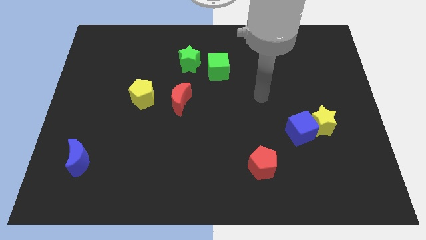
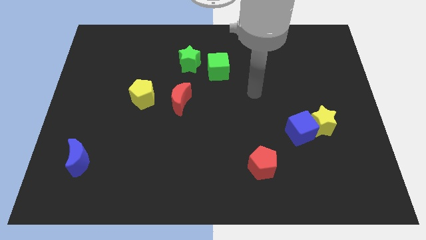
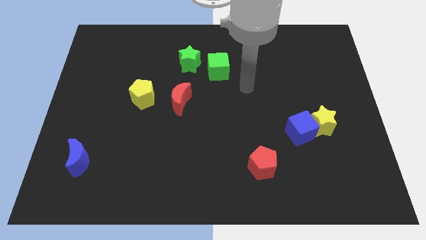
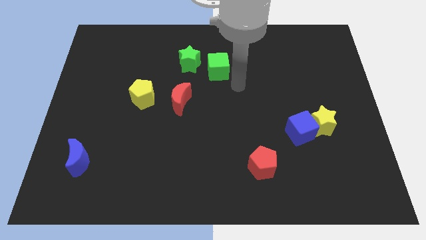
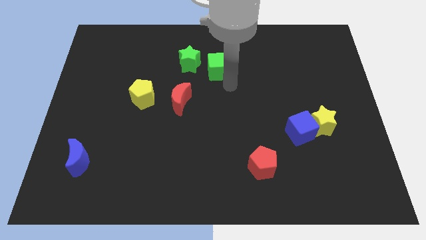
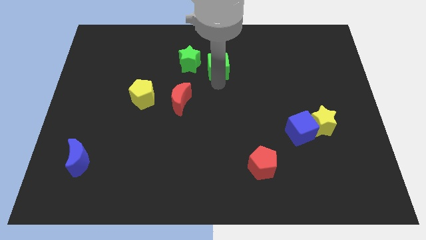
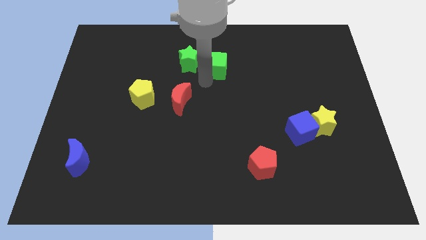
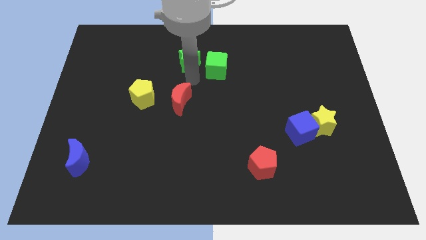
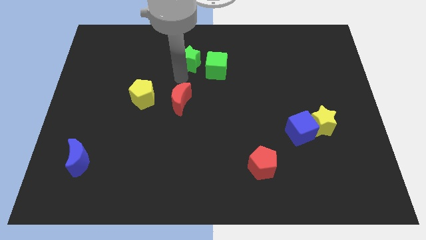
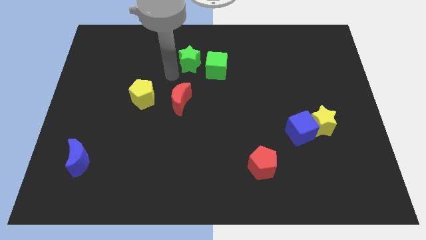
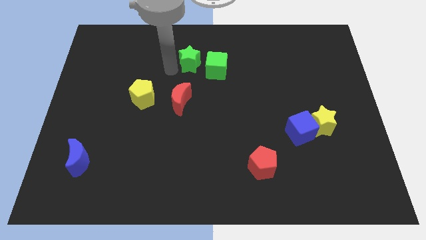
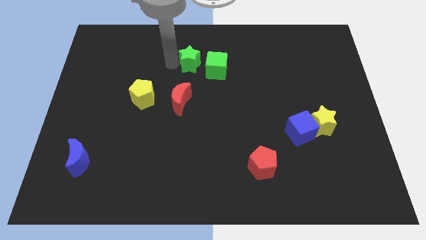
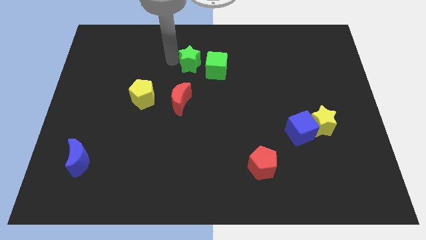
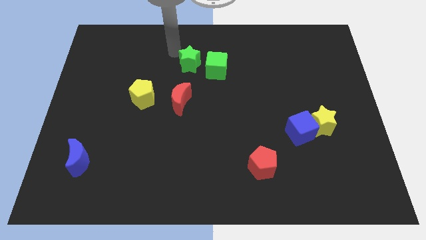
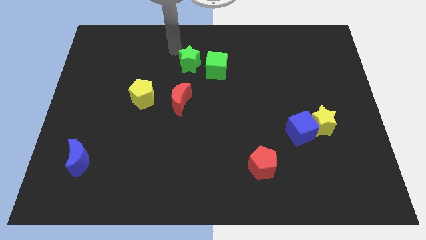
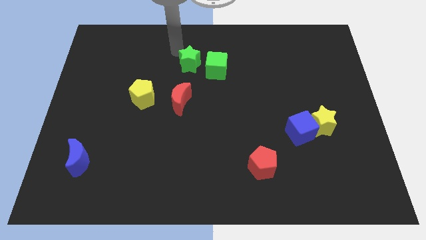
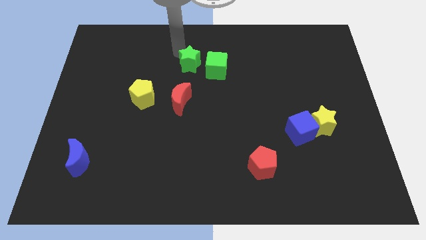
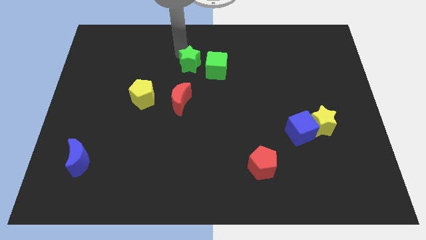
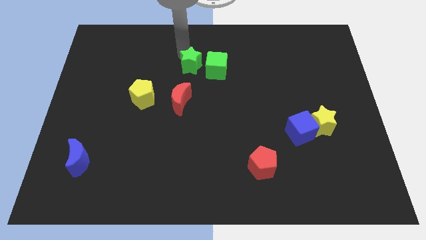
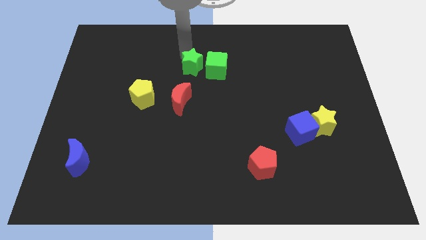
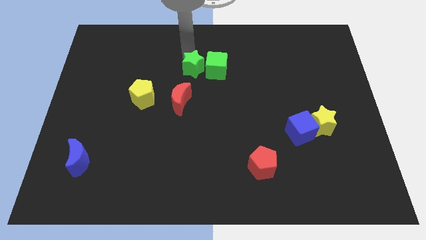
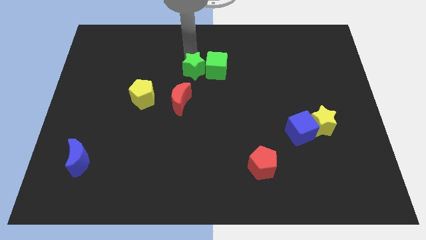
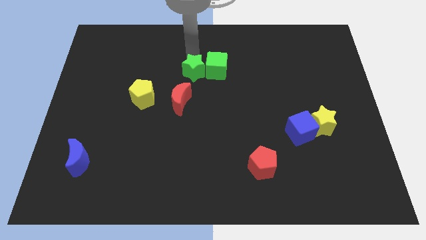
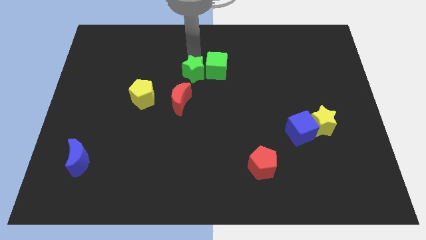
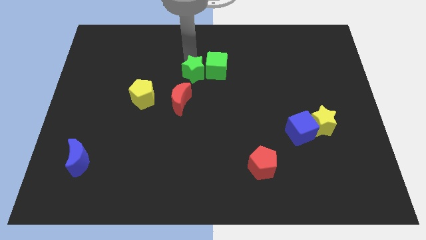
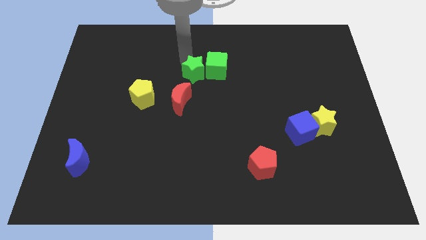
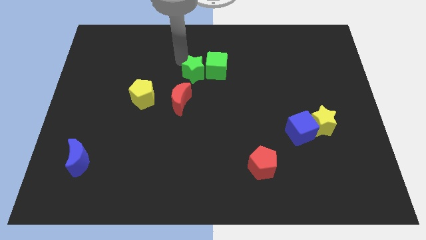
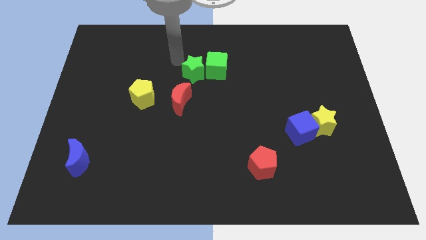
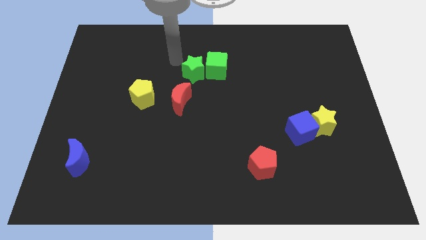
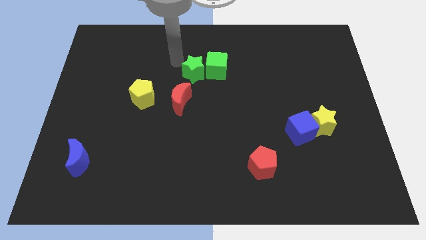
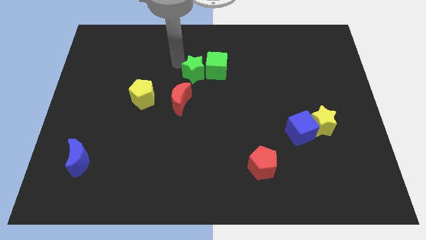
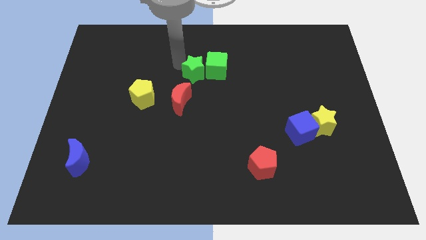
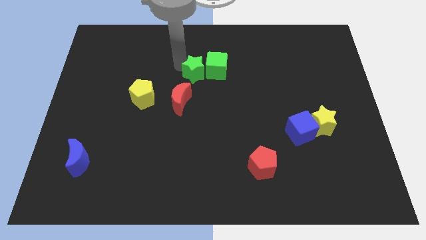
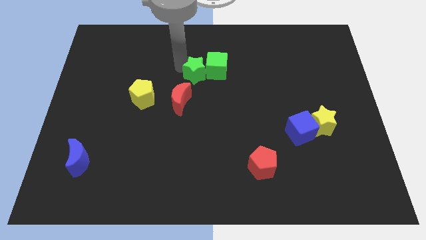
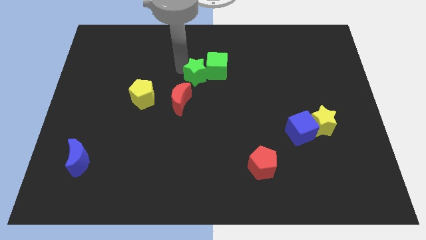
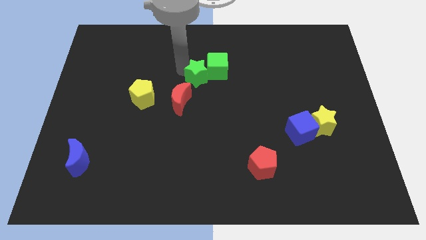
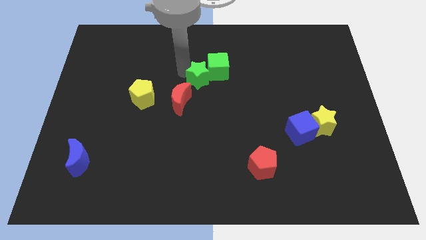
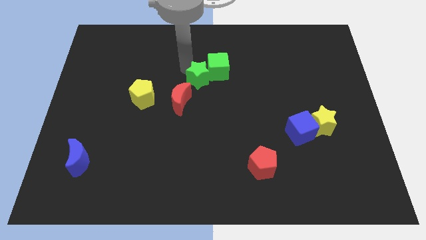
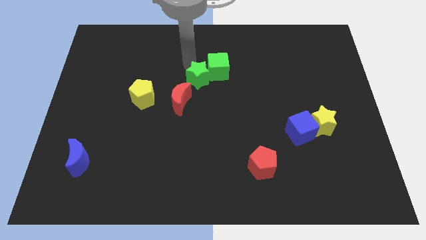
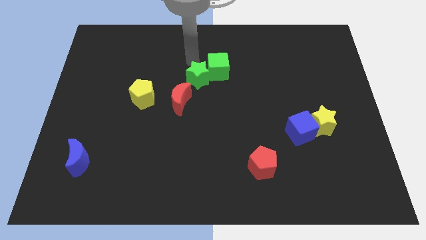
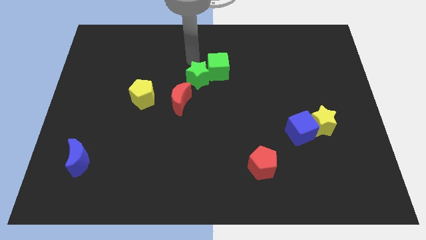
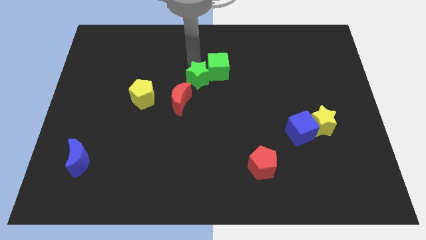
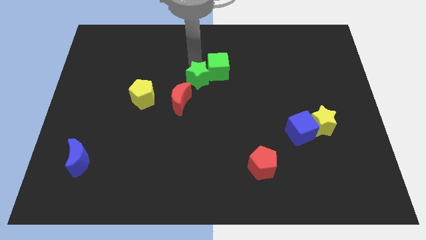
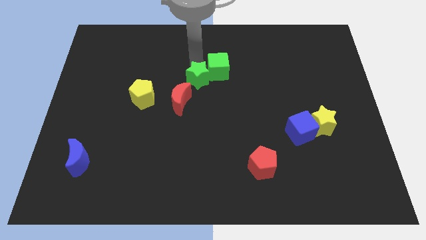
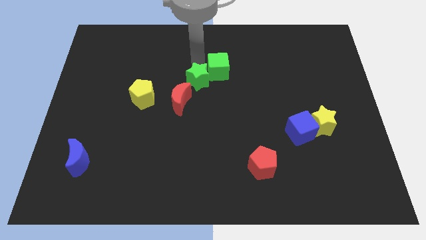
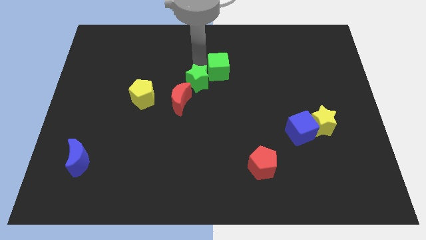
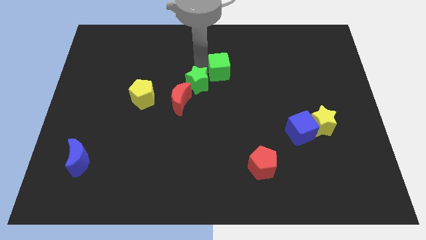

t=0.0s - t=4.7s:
push the green star downwards somewhat

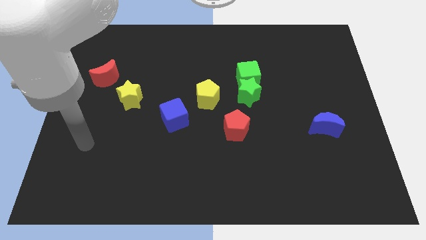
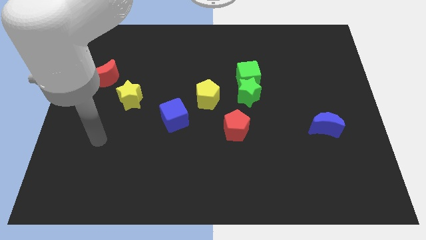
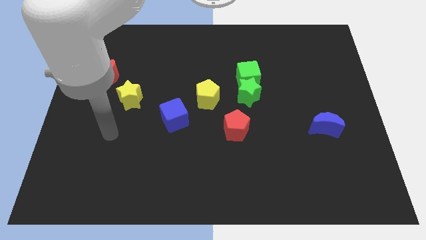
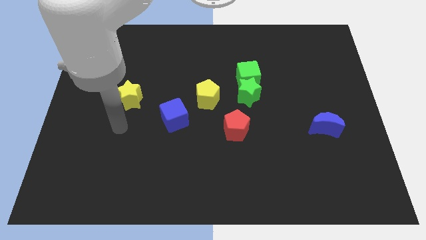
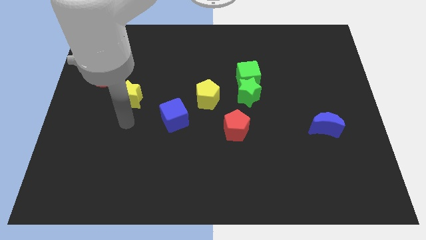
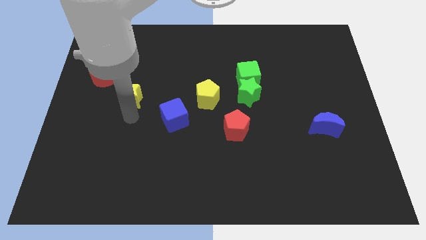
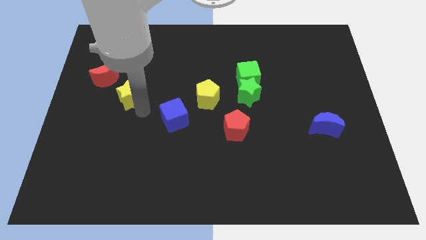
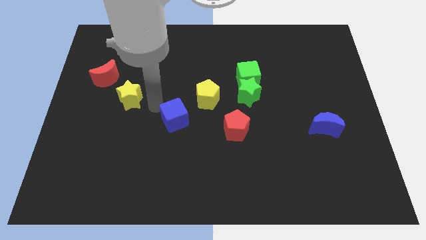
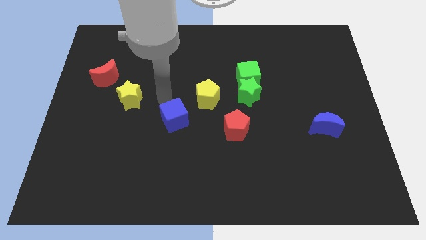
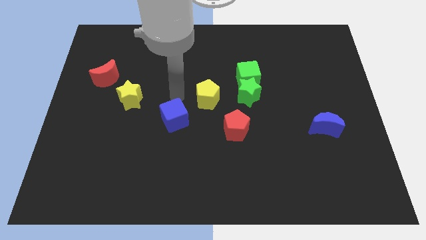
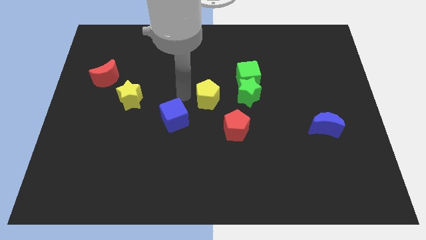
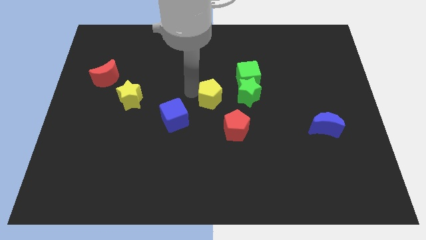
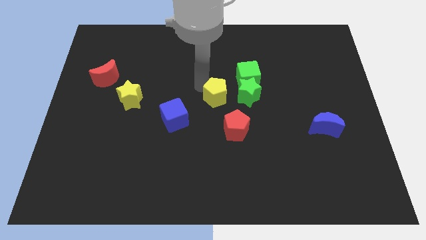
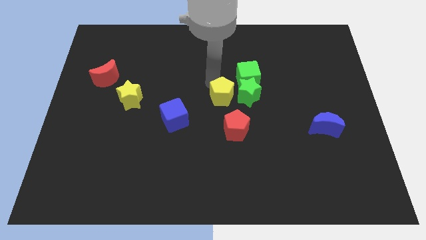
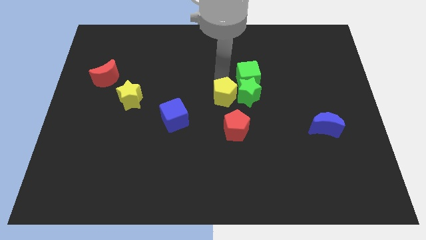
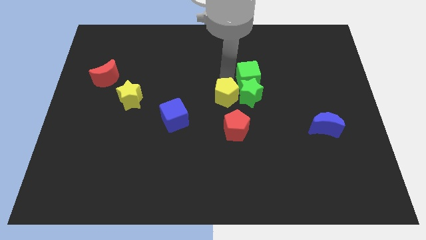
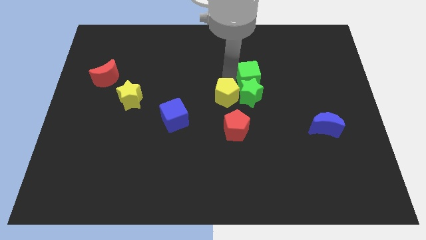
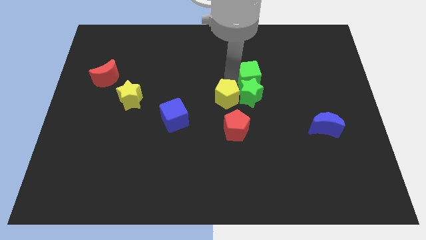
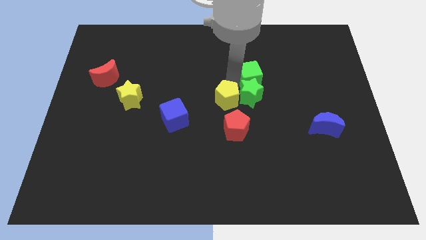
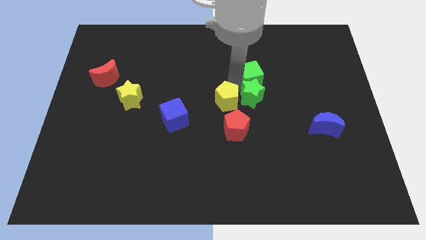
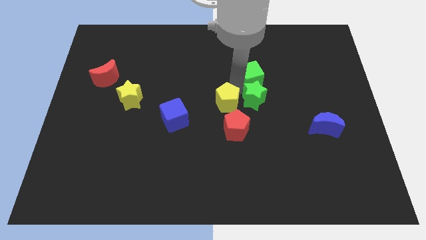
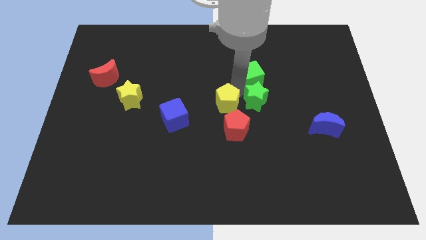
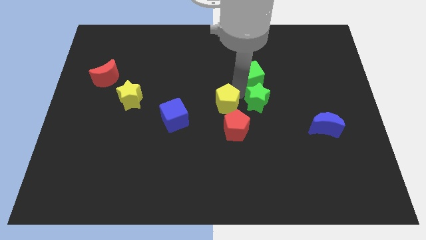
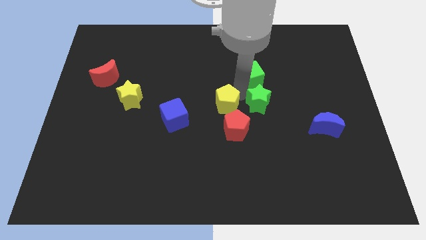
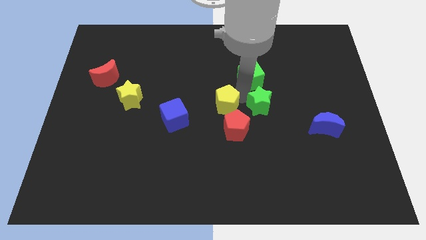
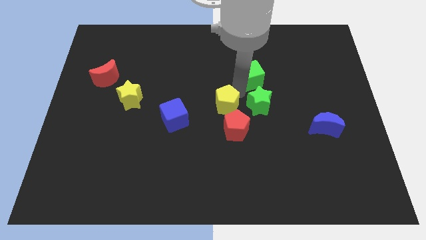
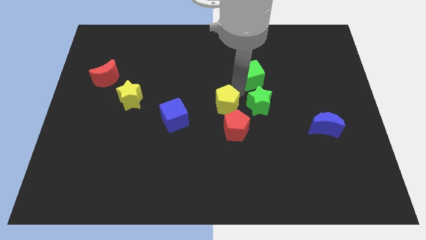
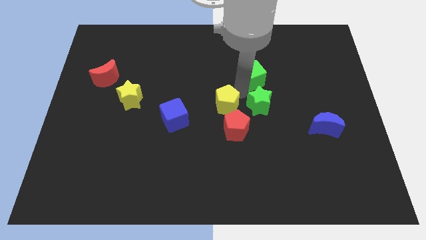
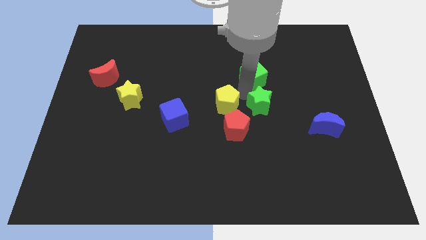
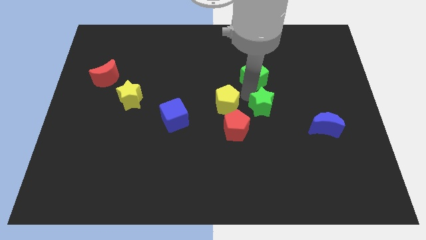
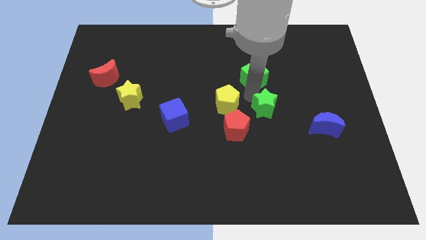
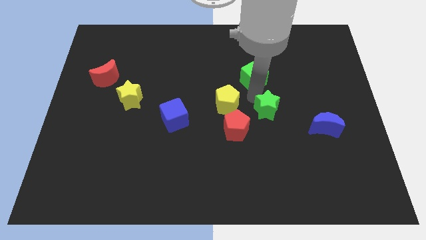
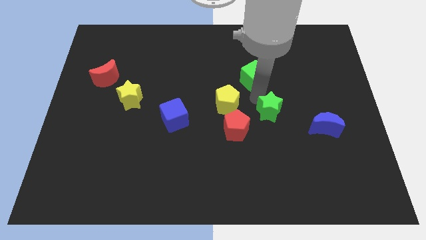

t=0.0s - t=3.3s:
slide the green star a bit down and right diagonally

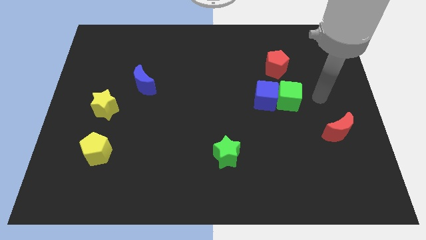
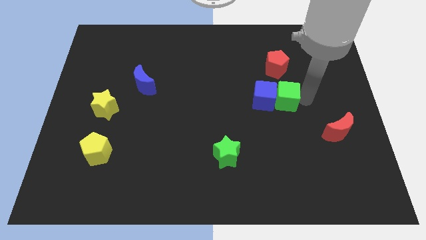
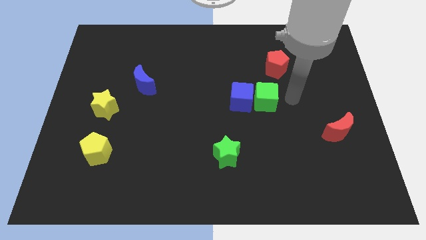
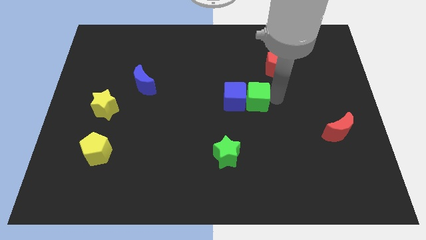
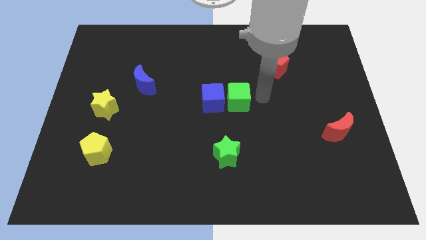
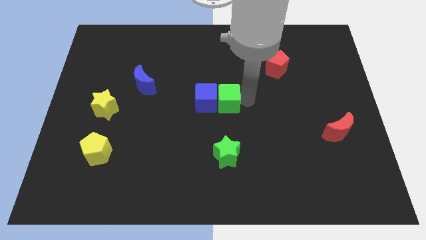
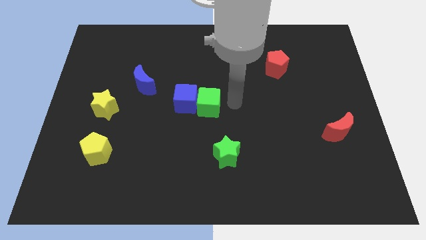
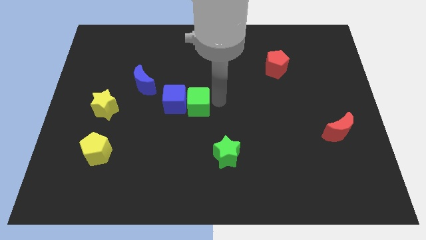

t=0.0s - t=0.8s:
slide the blue cube to the left
